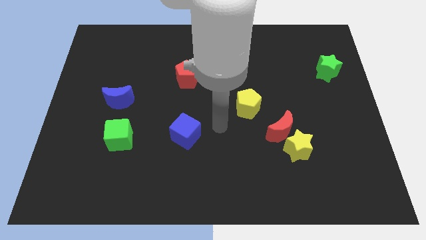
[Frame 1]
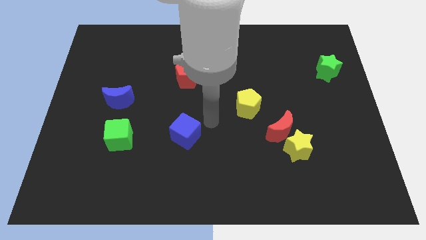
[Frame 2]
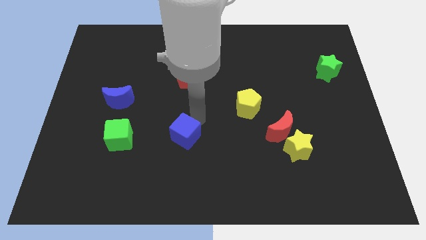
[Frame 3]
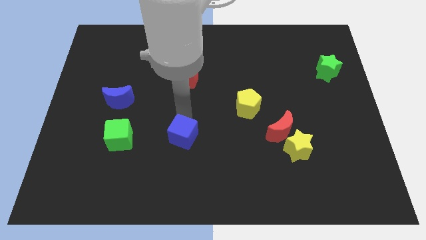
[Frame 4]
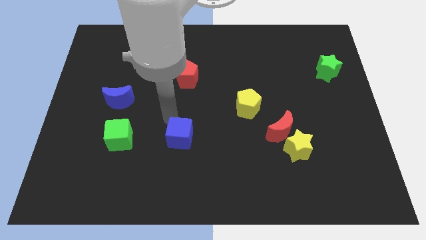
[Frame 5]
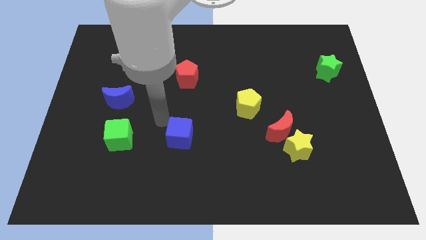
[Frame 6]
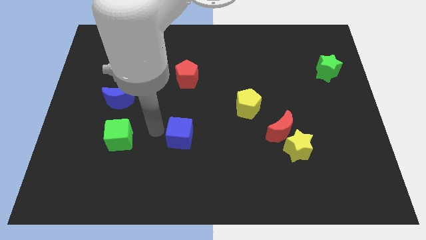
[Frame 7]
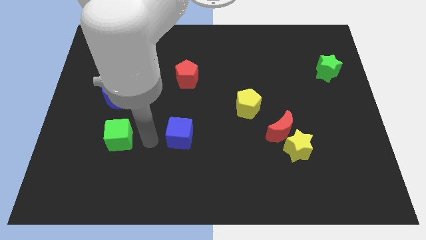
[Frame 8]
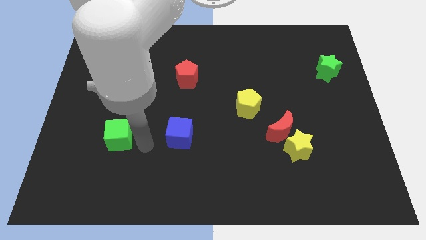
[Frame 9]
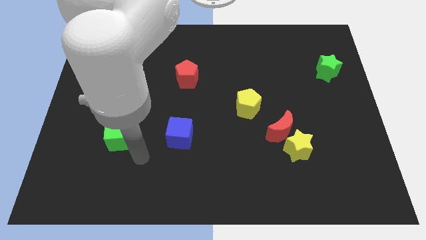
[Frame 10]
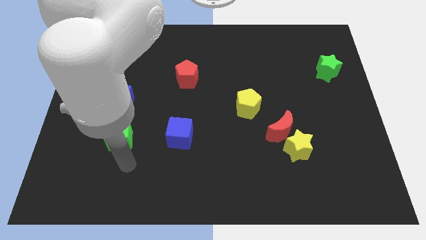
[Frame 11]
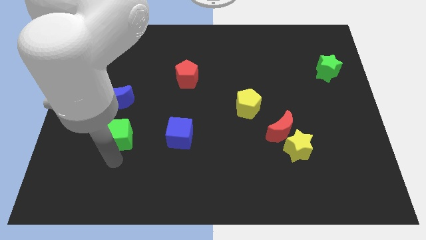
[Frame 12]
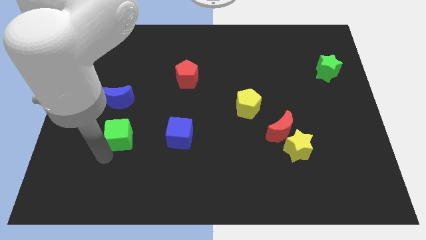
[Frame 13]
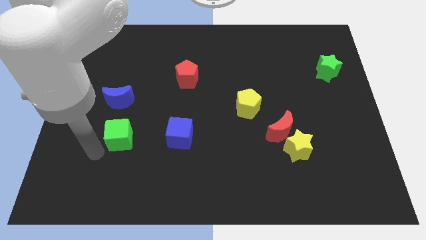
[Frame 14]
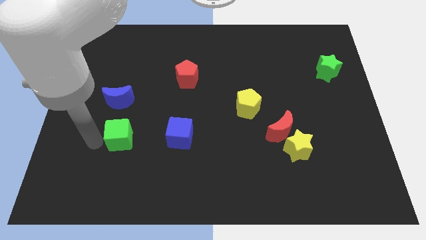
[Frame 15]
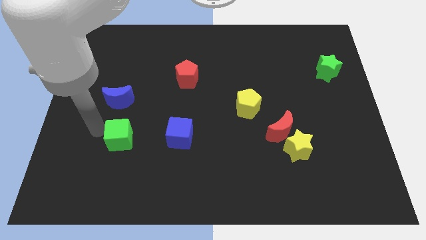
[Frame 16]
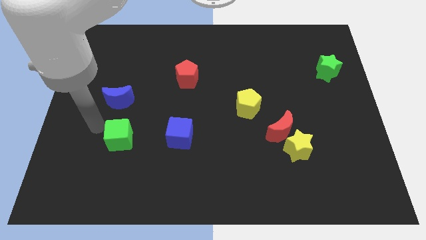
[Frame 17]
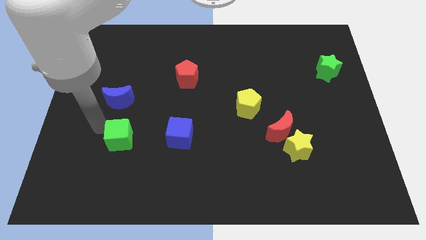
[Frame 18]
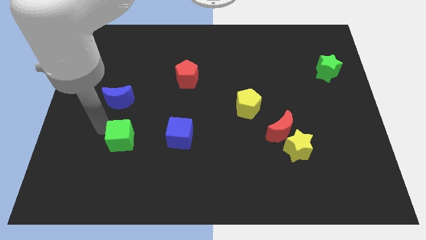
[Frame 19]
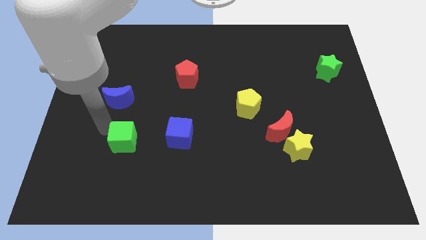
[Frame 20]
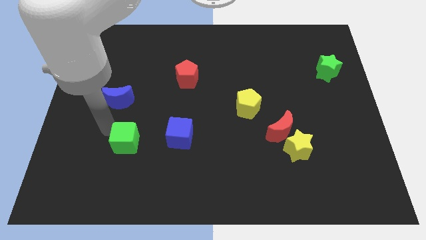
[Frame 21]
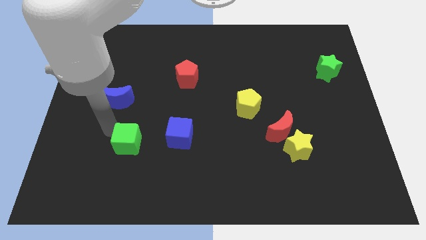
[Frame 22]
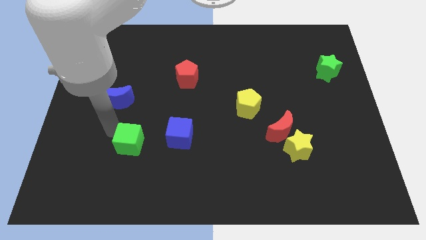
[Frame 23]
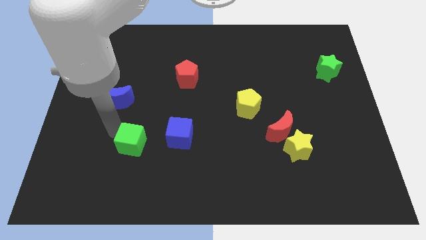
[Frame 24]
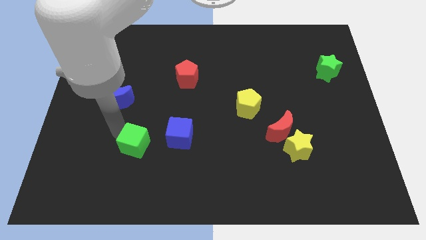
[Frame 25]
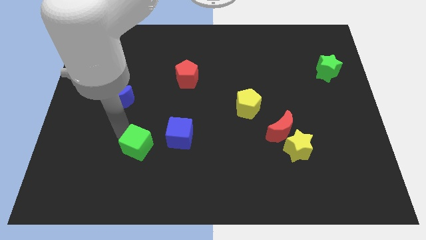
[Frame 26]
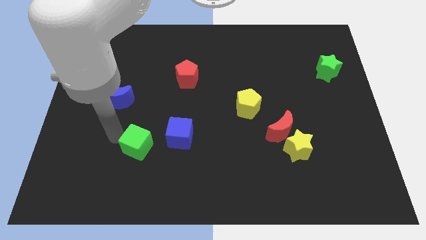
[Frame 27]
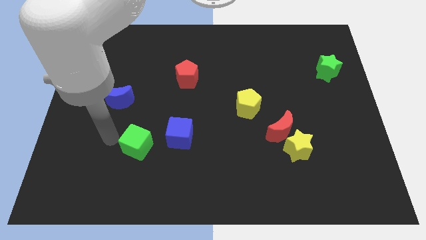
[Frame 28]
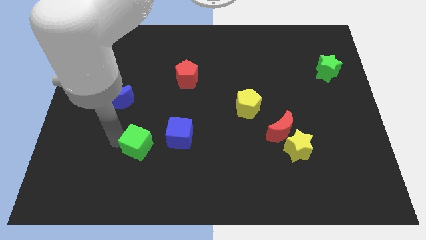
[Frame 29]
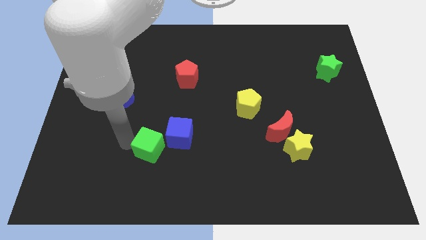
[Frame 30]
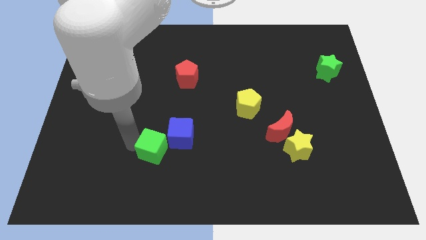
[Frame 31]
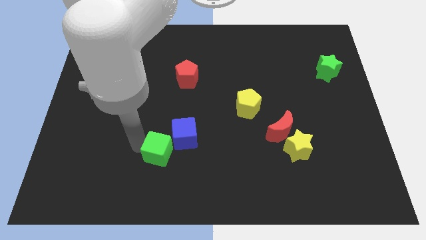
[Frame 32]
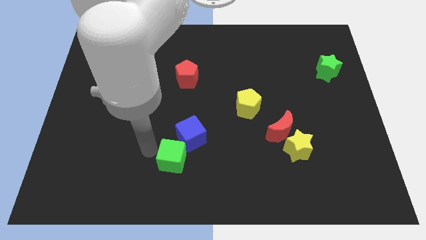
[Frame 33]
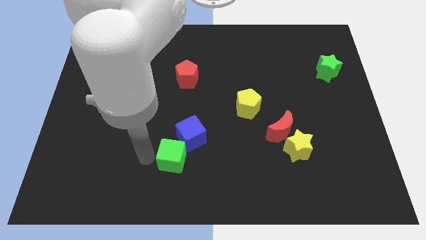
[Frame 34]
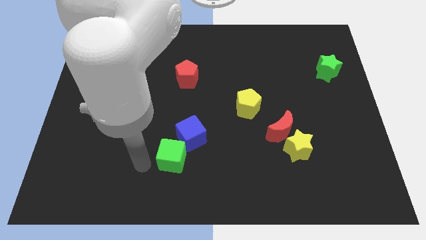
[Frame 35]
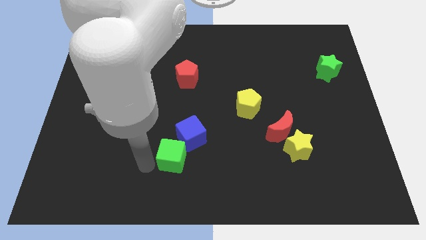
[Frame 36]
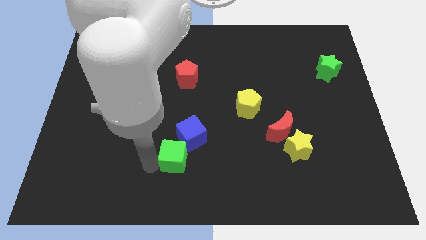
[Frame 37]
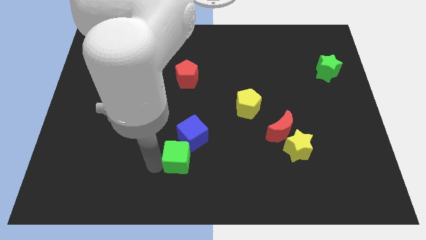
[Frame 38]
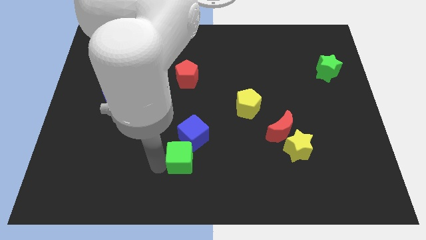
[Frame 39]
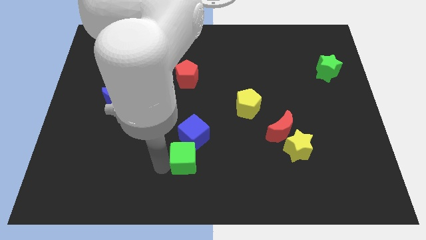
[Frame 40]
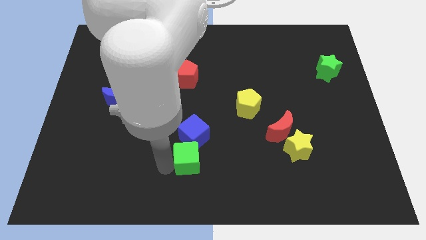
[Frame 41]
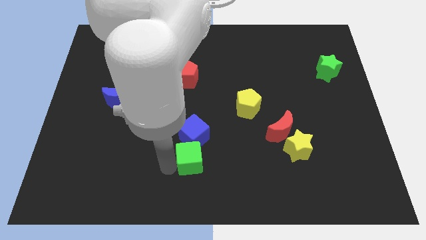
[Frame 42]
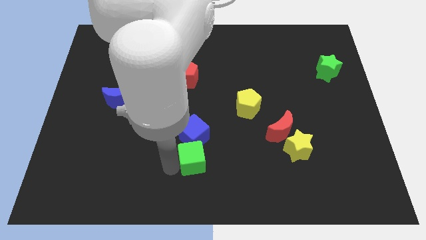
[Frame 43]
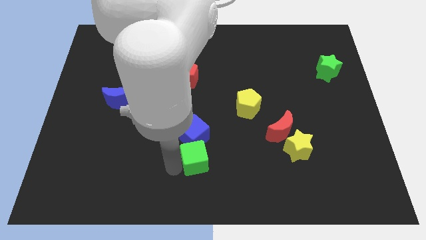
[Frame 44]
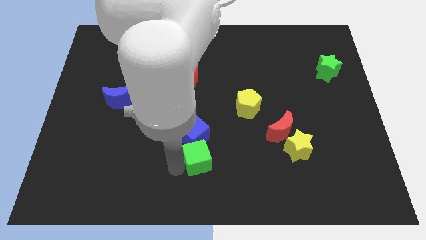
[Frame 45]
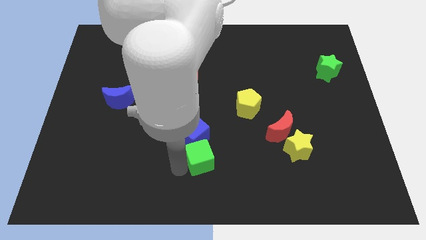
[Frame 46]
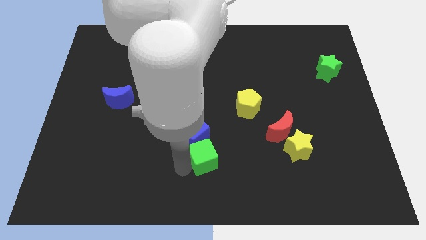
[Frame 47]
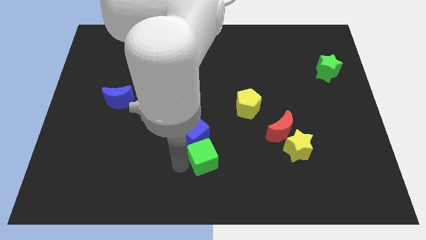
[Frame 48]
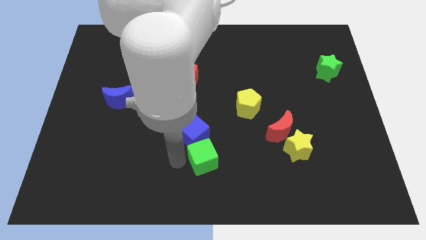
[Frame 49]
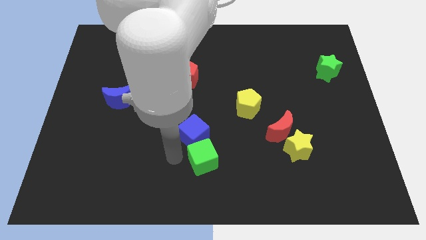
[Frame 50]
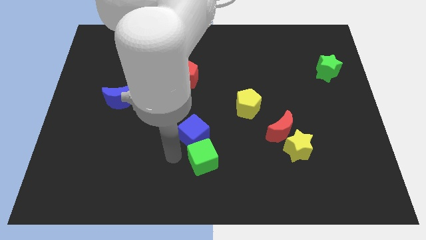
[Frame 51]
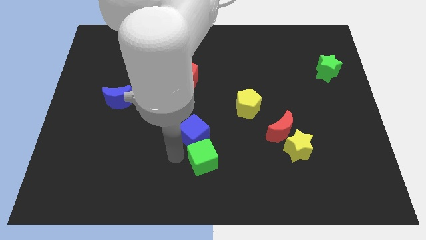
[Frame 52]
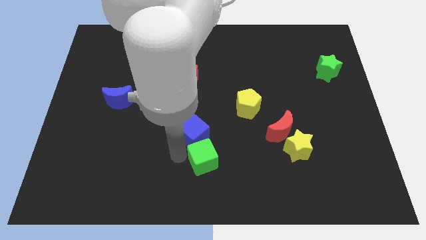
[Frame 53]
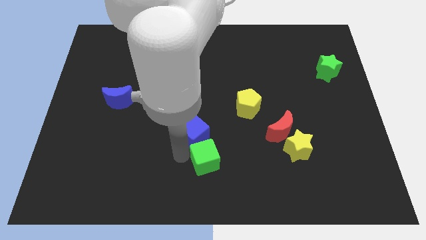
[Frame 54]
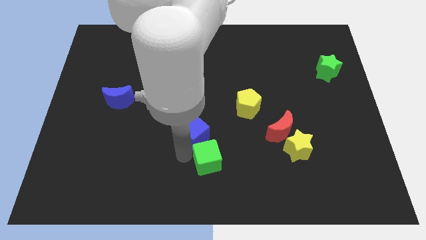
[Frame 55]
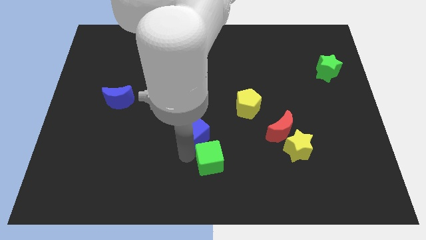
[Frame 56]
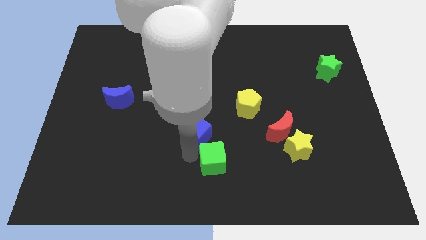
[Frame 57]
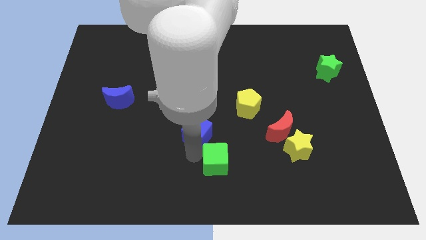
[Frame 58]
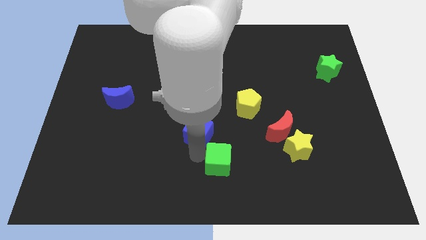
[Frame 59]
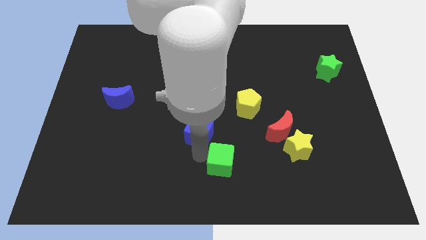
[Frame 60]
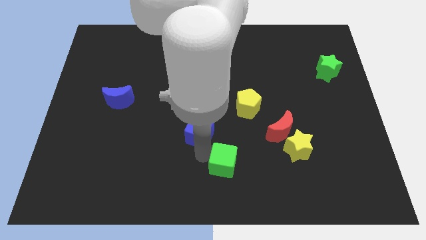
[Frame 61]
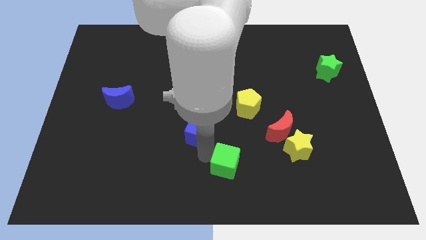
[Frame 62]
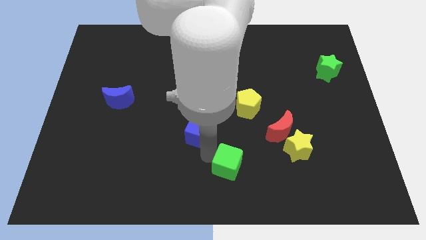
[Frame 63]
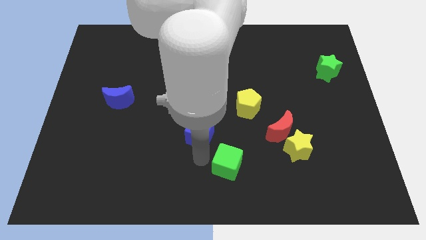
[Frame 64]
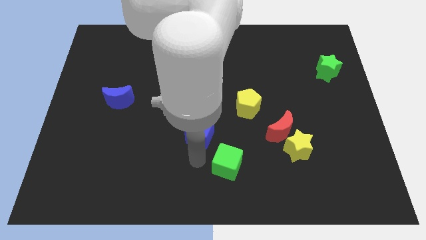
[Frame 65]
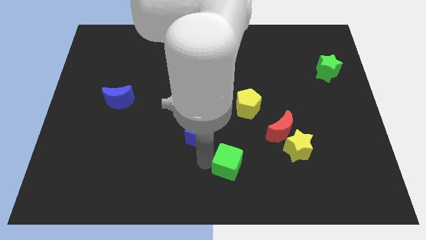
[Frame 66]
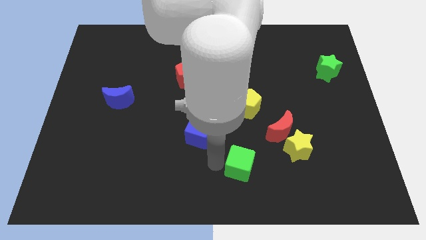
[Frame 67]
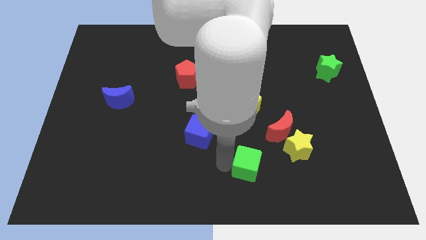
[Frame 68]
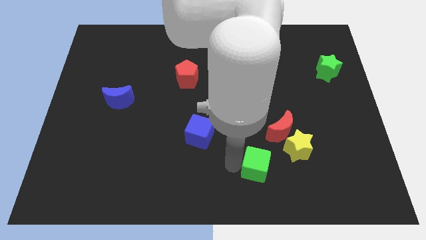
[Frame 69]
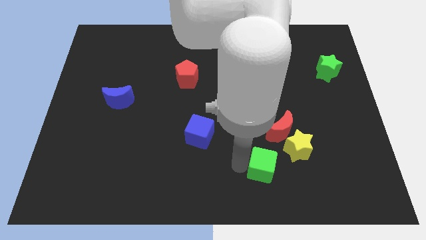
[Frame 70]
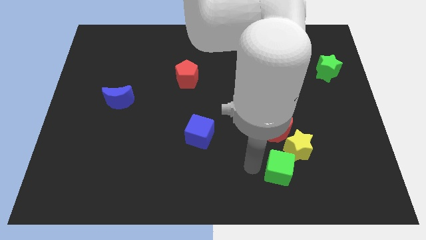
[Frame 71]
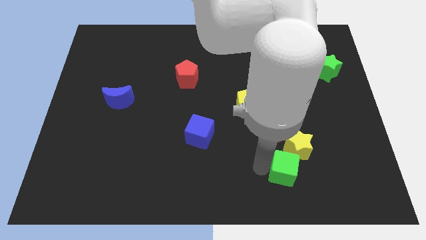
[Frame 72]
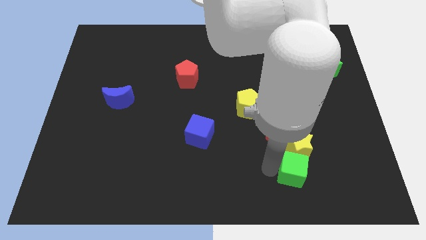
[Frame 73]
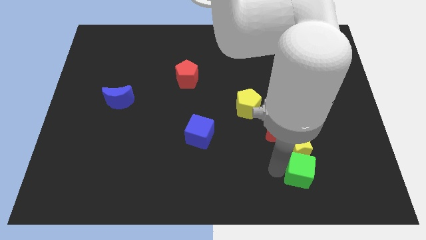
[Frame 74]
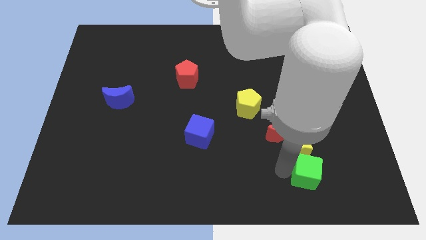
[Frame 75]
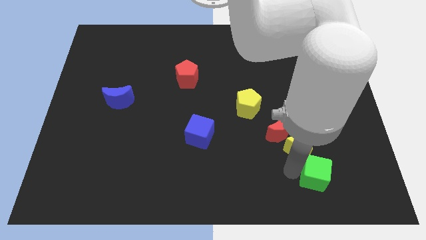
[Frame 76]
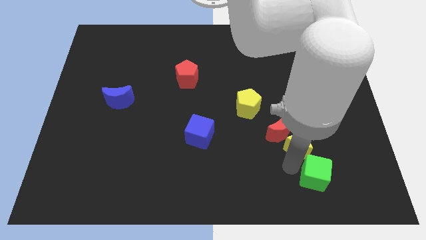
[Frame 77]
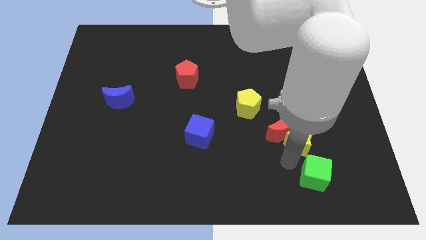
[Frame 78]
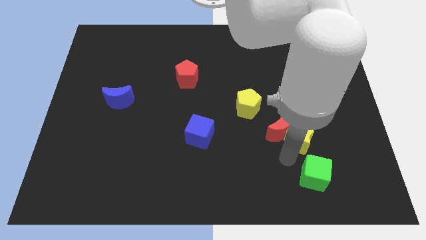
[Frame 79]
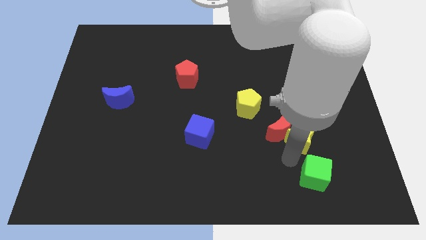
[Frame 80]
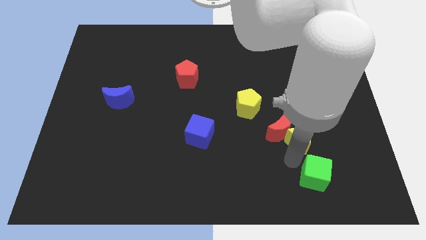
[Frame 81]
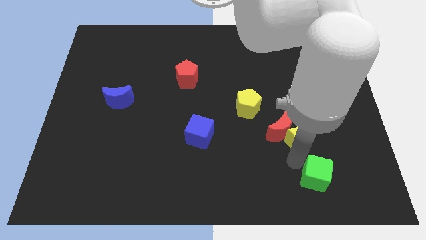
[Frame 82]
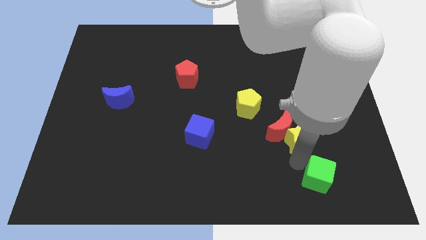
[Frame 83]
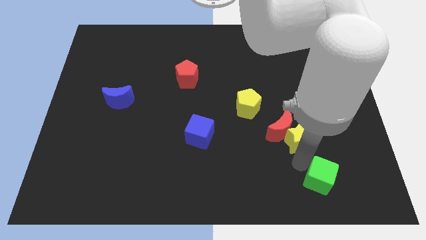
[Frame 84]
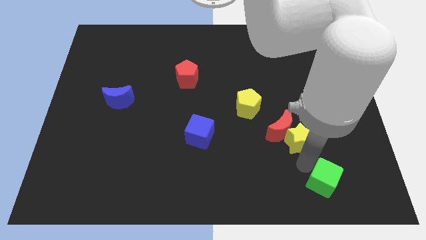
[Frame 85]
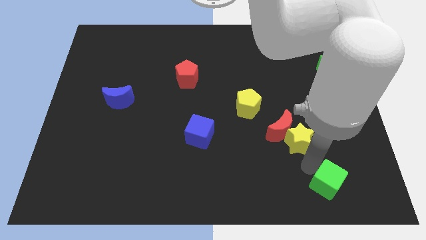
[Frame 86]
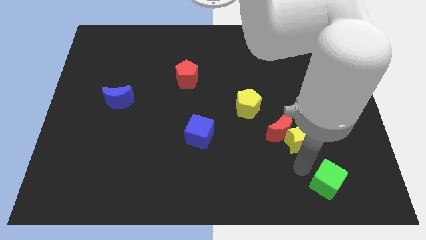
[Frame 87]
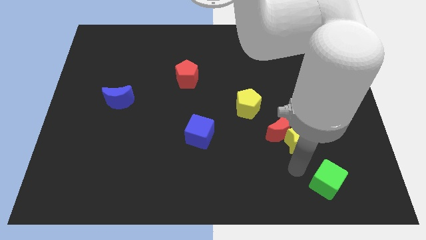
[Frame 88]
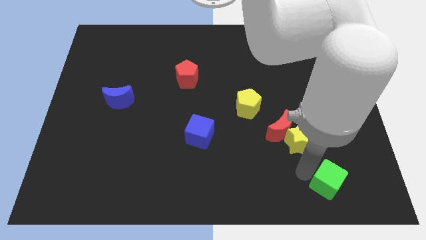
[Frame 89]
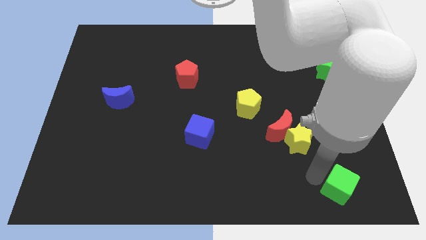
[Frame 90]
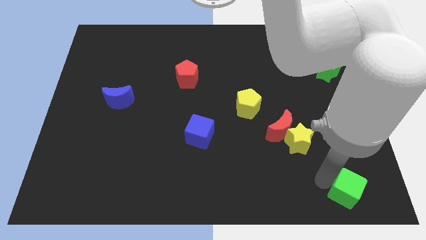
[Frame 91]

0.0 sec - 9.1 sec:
push the green cube to the lower right corner
